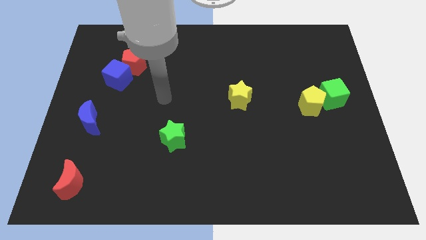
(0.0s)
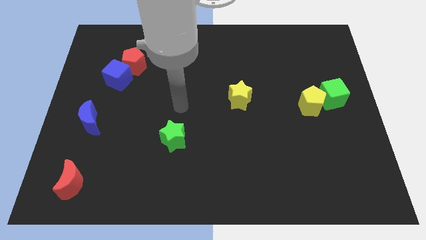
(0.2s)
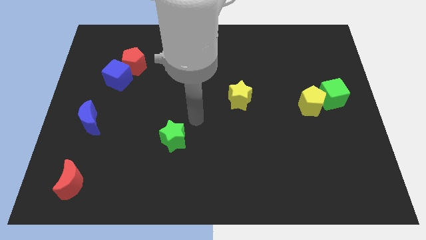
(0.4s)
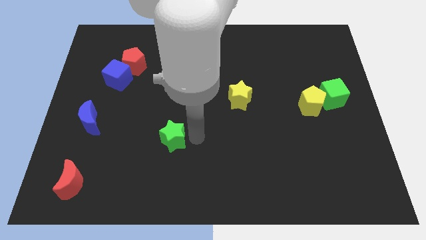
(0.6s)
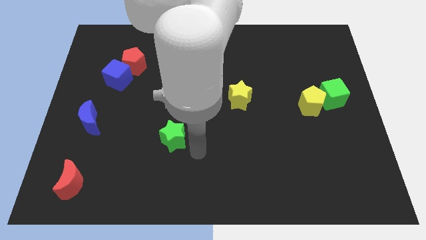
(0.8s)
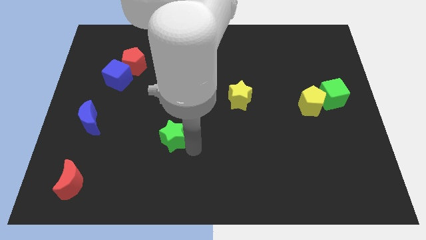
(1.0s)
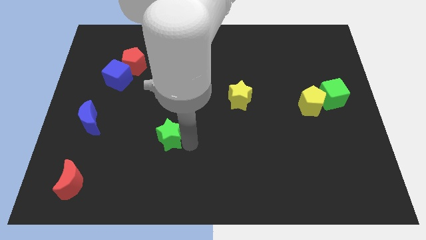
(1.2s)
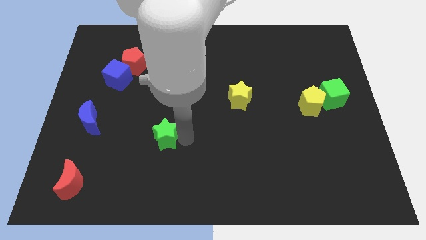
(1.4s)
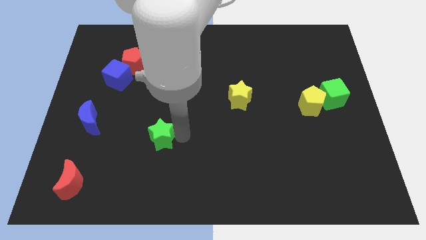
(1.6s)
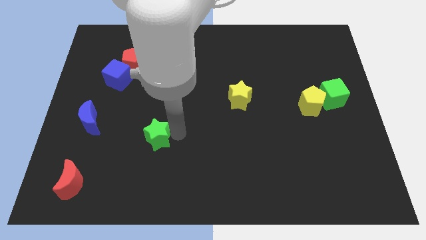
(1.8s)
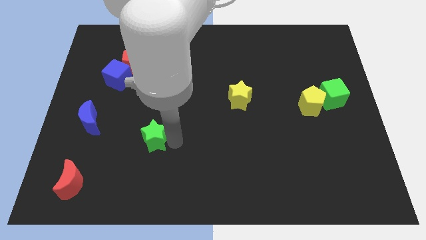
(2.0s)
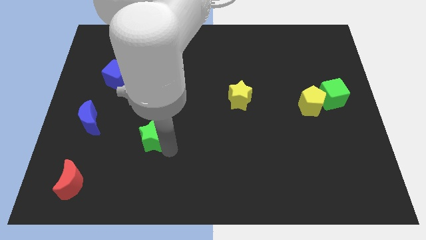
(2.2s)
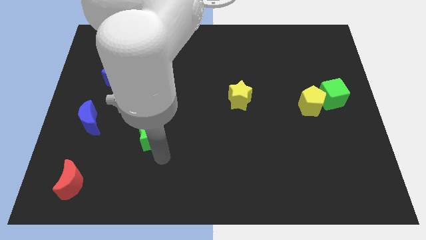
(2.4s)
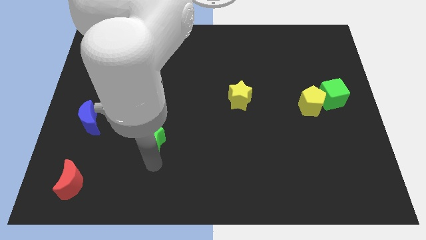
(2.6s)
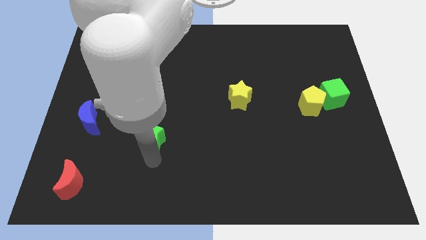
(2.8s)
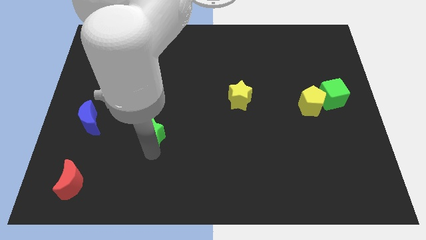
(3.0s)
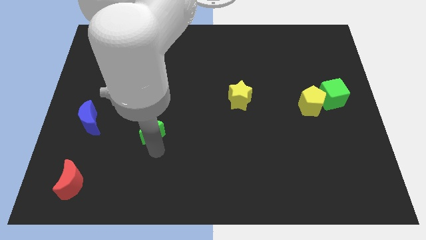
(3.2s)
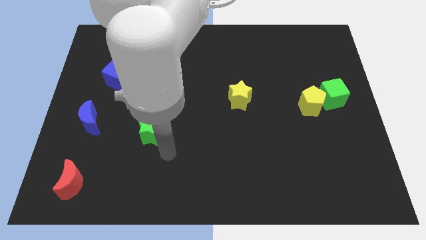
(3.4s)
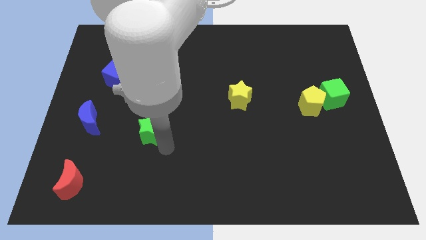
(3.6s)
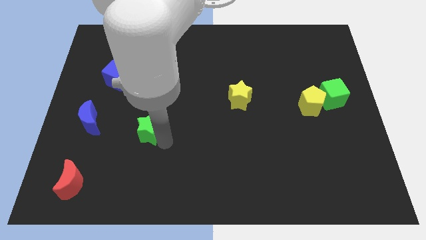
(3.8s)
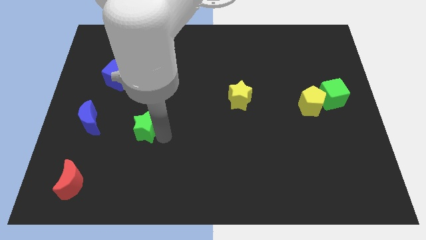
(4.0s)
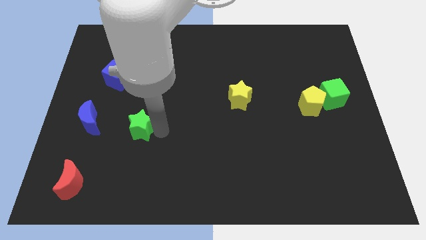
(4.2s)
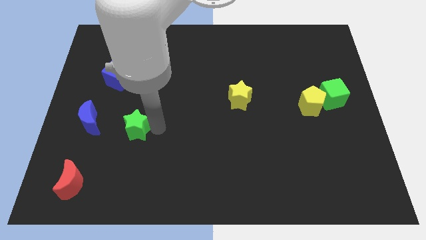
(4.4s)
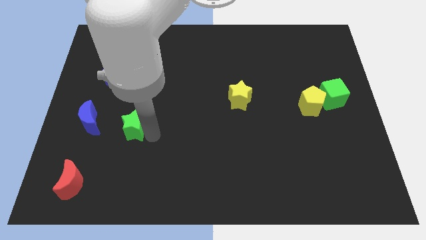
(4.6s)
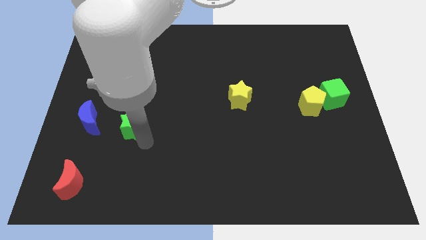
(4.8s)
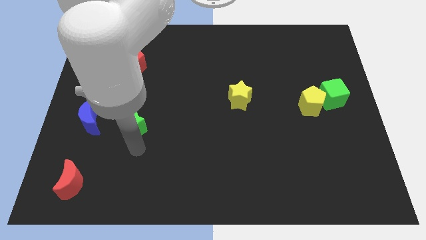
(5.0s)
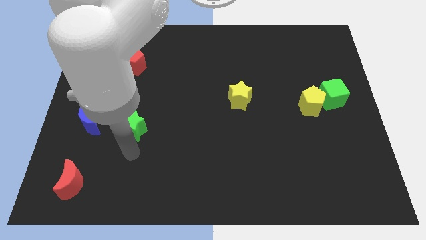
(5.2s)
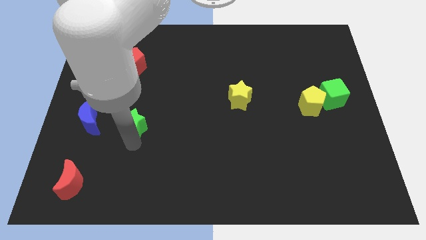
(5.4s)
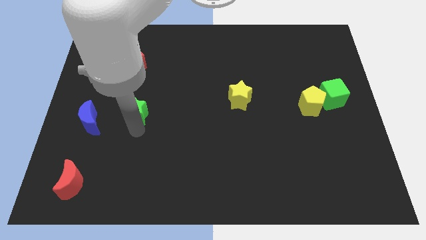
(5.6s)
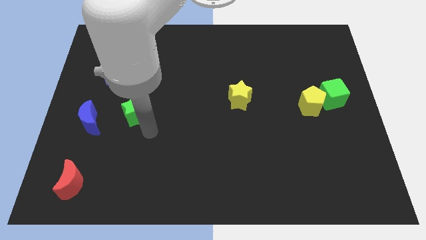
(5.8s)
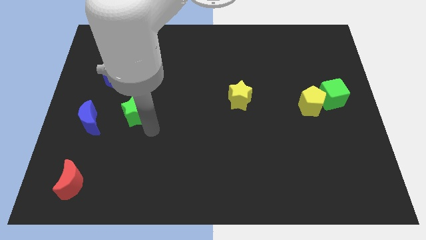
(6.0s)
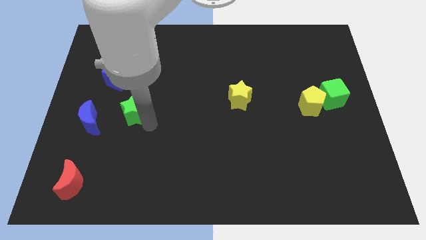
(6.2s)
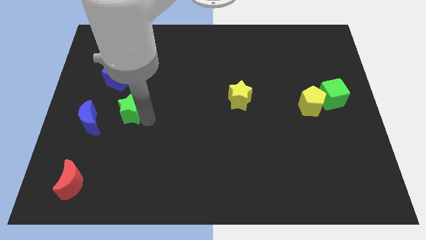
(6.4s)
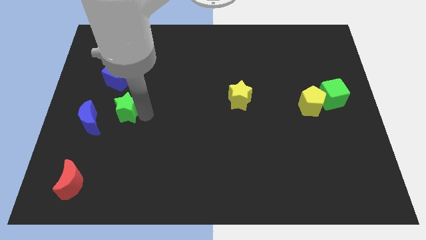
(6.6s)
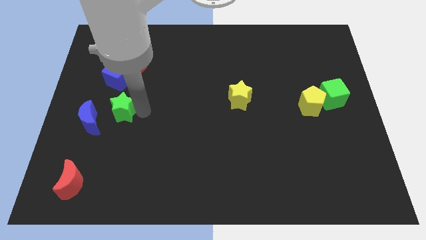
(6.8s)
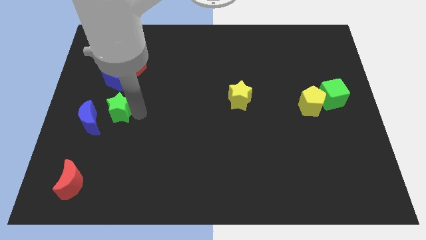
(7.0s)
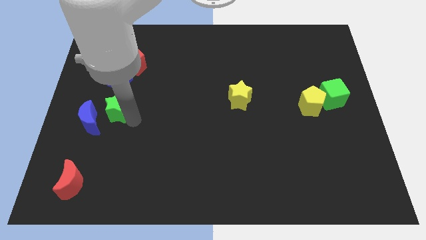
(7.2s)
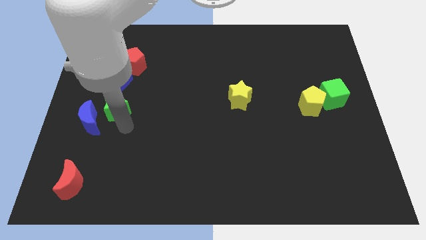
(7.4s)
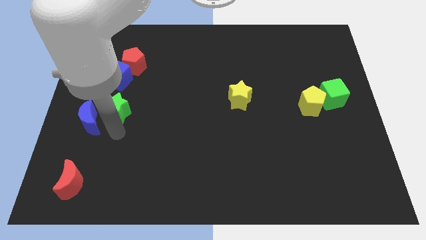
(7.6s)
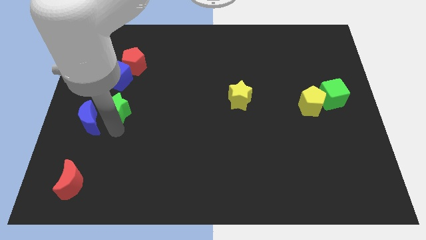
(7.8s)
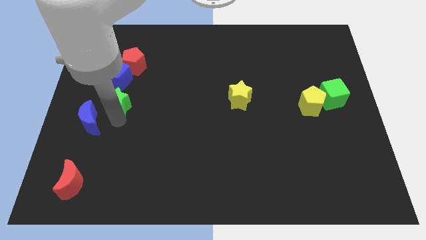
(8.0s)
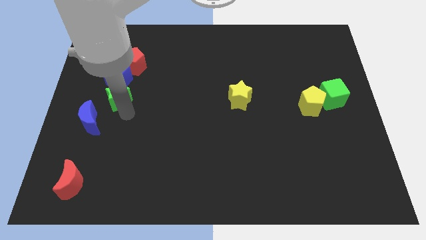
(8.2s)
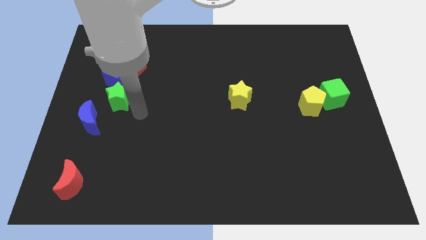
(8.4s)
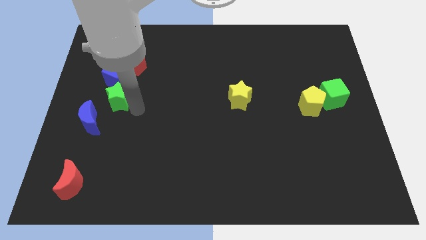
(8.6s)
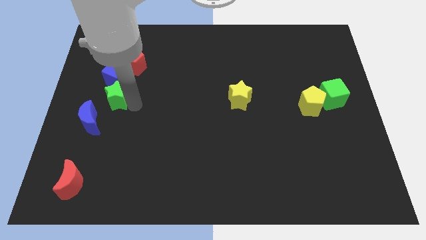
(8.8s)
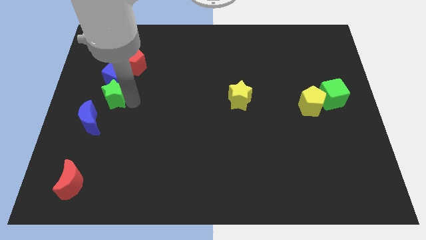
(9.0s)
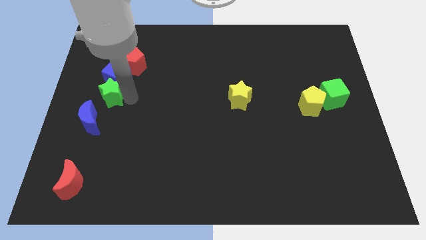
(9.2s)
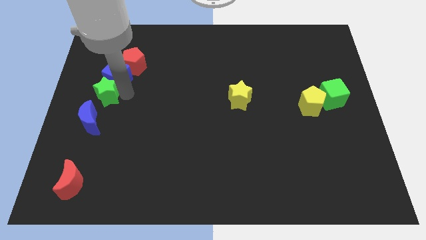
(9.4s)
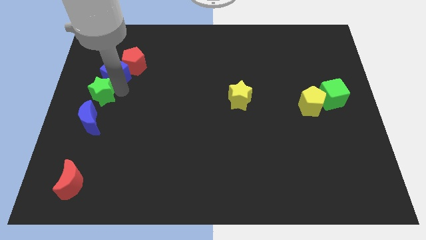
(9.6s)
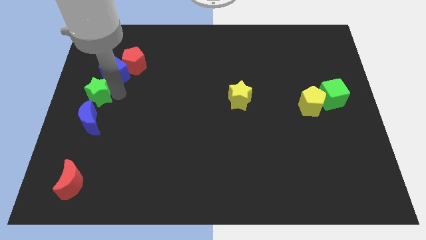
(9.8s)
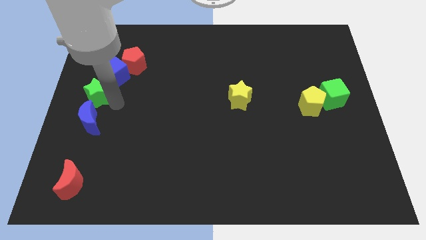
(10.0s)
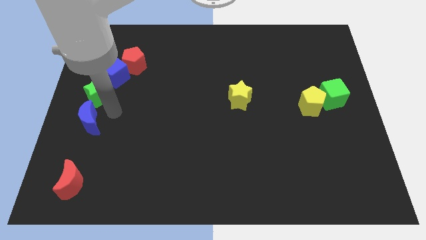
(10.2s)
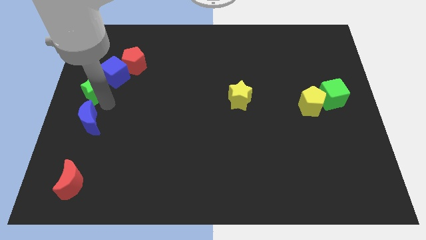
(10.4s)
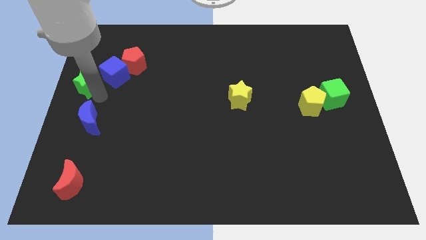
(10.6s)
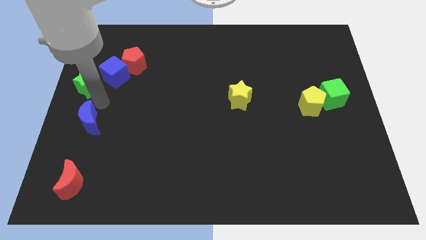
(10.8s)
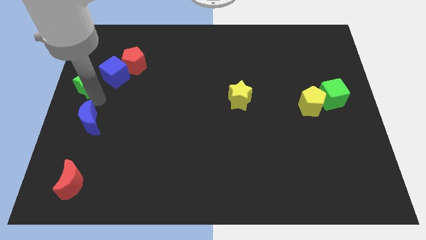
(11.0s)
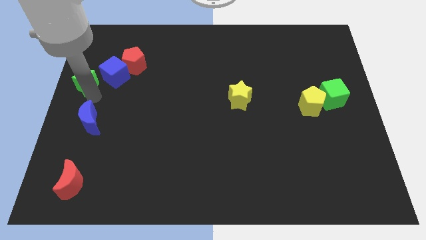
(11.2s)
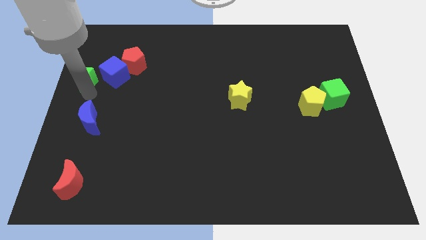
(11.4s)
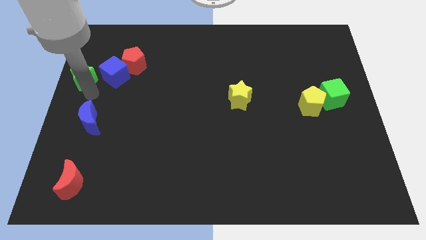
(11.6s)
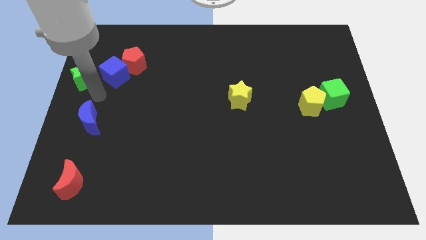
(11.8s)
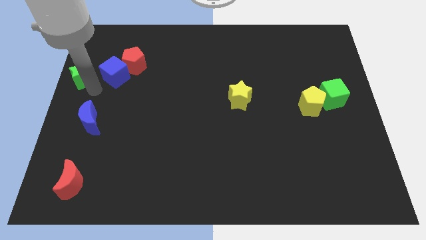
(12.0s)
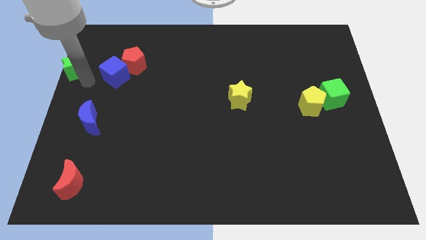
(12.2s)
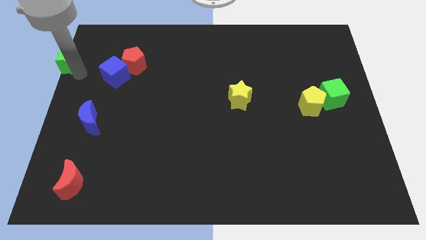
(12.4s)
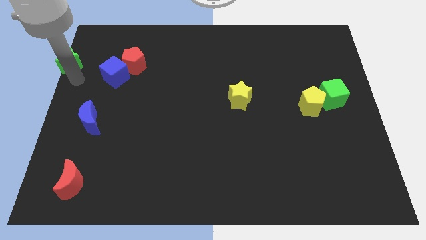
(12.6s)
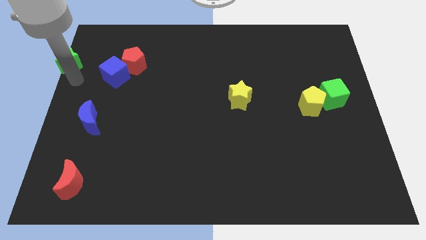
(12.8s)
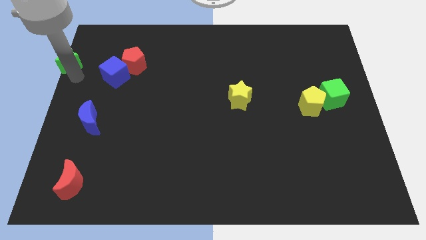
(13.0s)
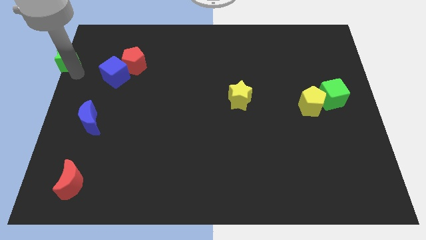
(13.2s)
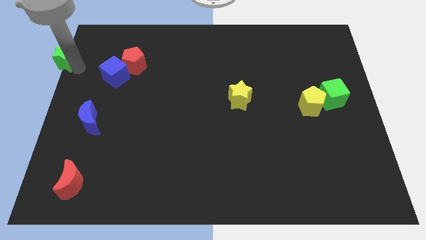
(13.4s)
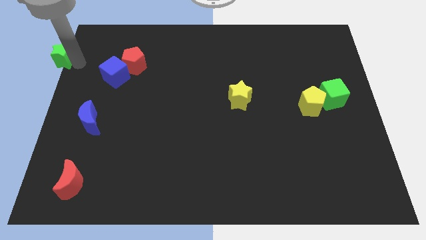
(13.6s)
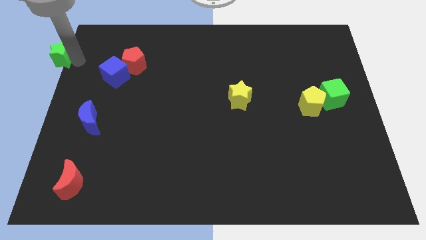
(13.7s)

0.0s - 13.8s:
put the green star to the upper left corner

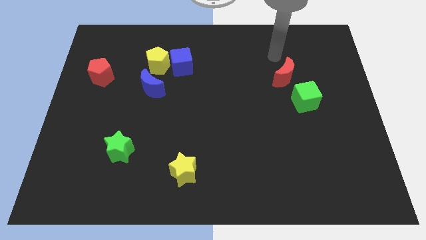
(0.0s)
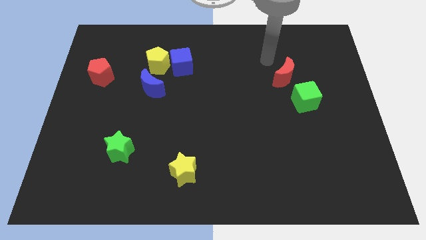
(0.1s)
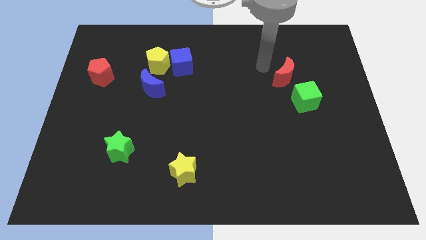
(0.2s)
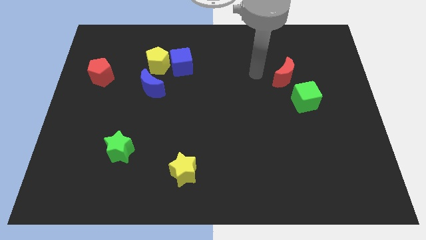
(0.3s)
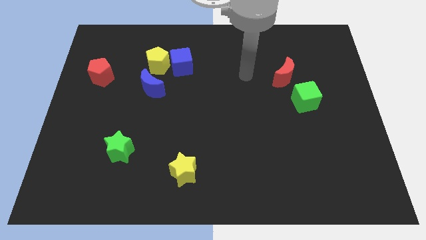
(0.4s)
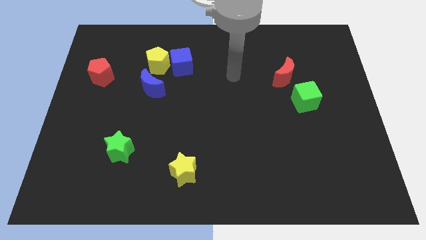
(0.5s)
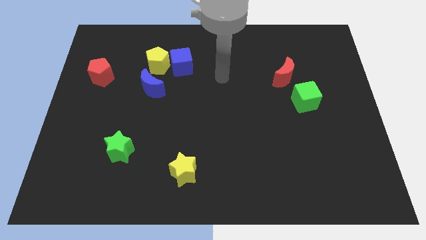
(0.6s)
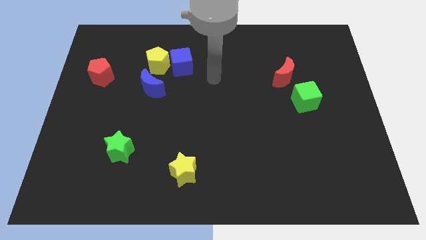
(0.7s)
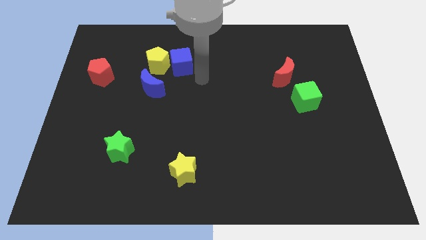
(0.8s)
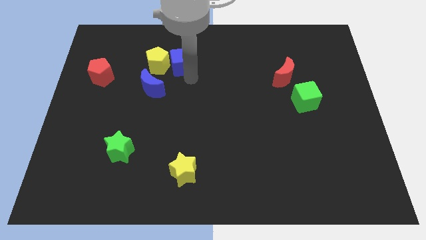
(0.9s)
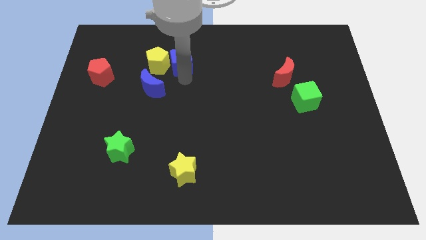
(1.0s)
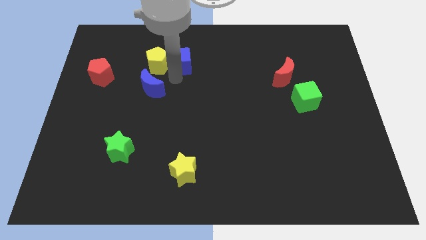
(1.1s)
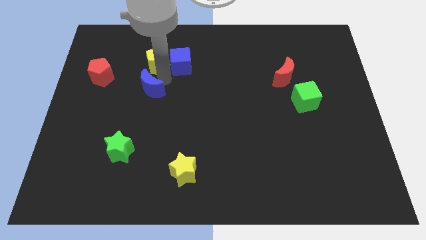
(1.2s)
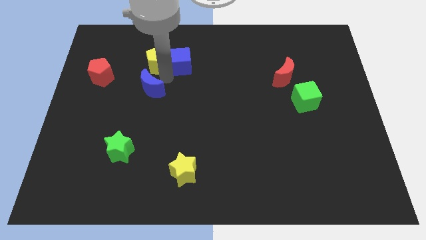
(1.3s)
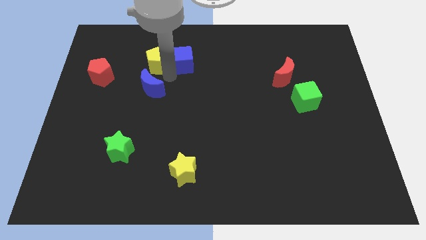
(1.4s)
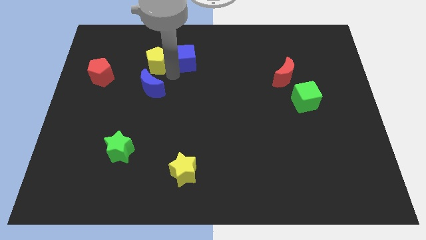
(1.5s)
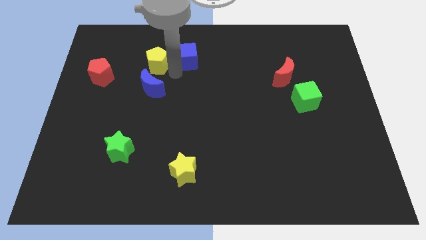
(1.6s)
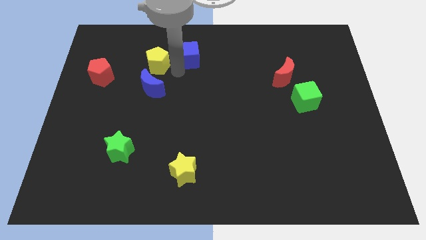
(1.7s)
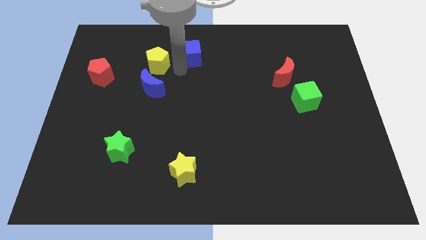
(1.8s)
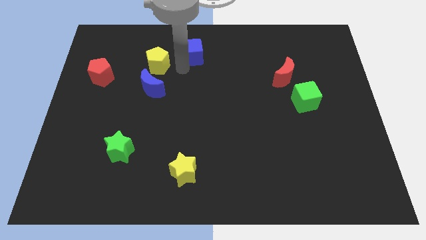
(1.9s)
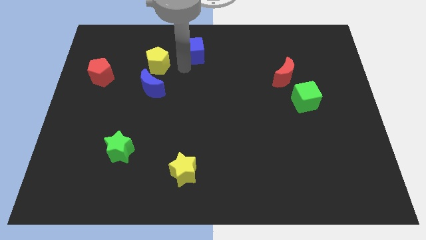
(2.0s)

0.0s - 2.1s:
move the blue cube to the top side
